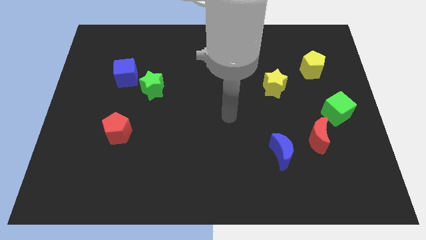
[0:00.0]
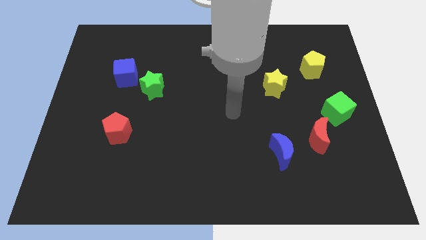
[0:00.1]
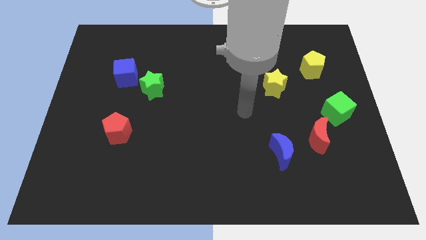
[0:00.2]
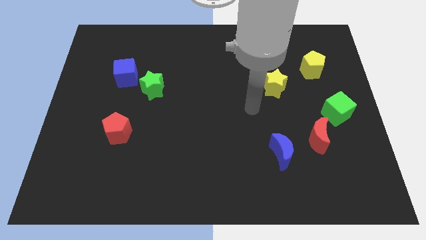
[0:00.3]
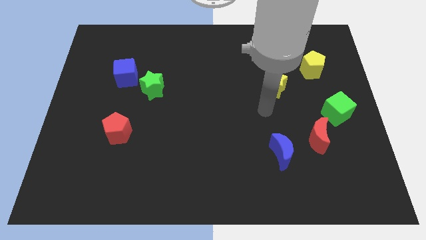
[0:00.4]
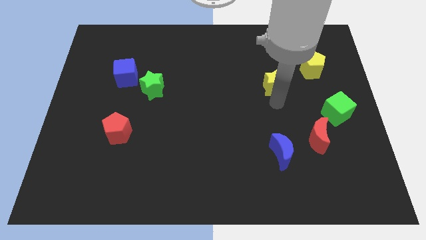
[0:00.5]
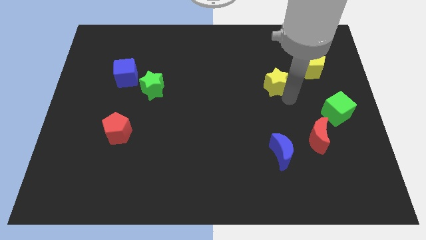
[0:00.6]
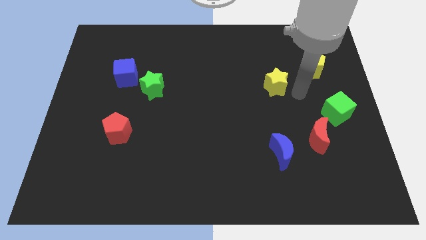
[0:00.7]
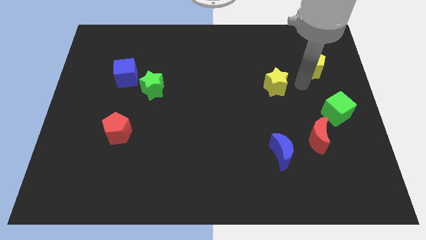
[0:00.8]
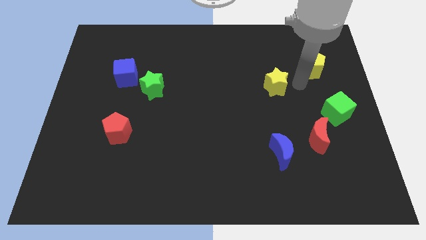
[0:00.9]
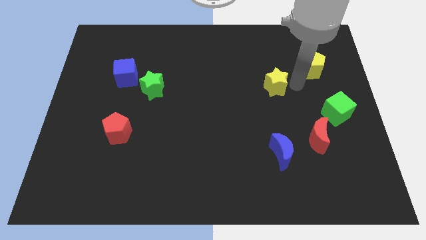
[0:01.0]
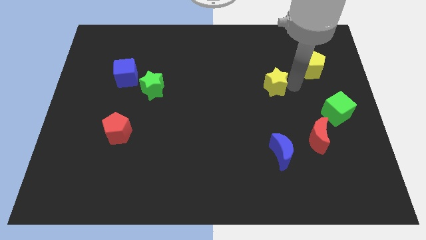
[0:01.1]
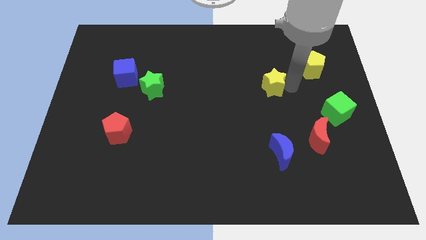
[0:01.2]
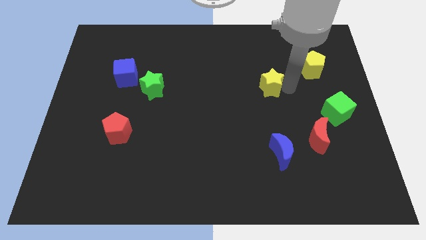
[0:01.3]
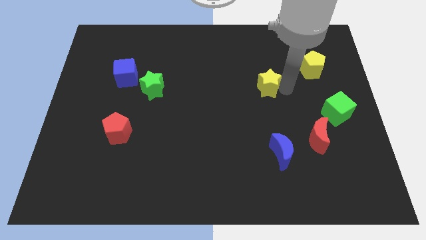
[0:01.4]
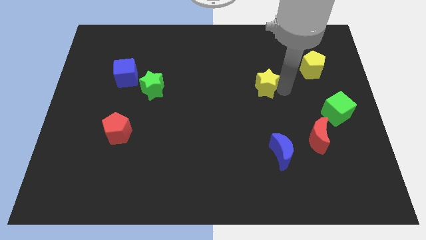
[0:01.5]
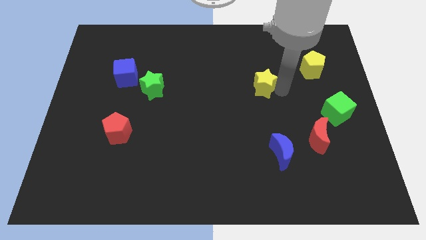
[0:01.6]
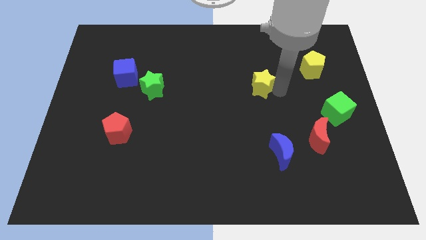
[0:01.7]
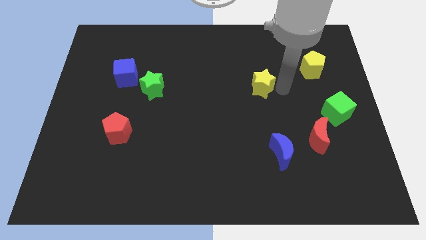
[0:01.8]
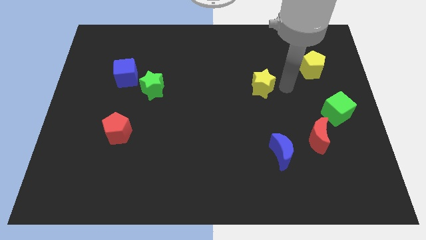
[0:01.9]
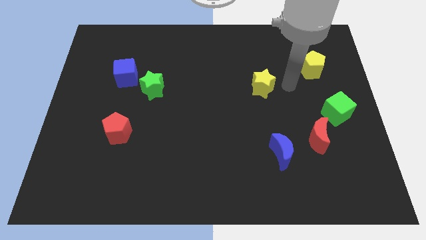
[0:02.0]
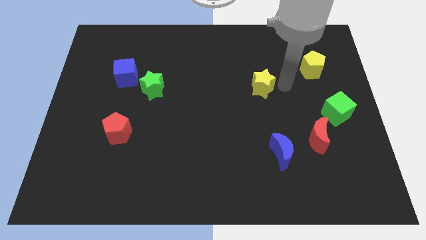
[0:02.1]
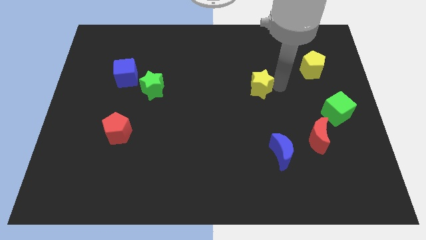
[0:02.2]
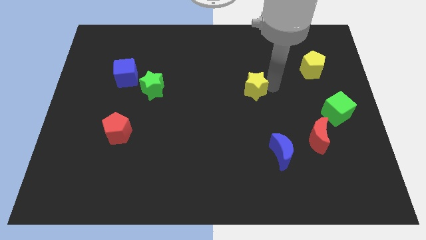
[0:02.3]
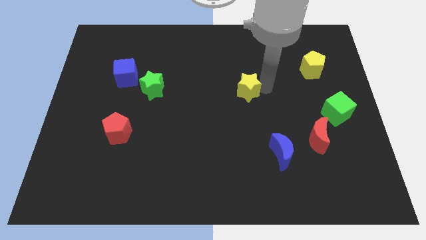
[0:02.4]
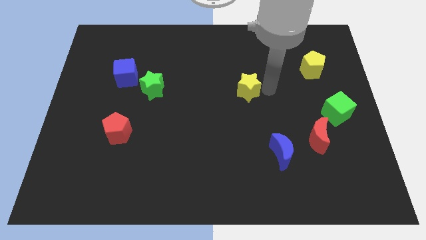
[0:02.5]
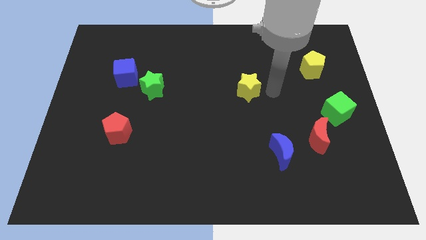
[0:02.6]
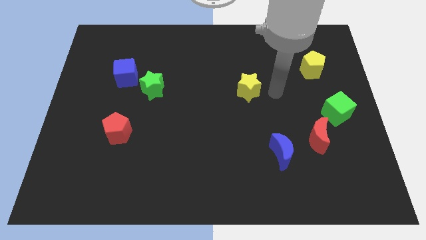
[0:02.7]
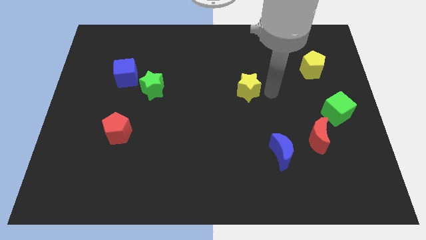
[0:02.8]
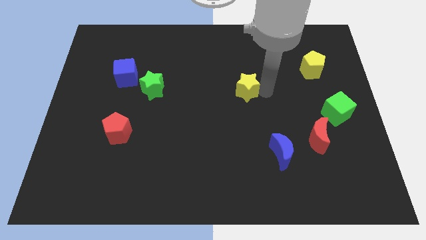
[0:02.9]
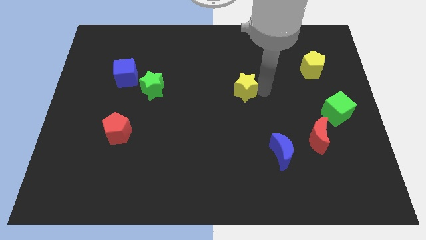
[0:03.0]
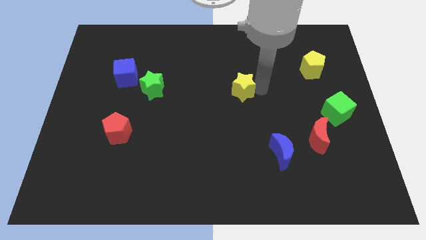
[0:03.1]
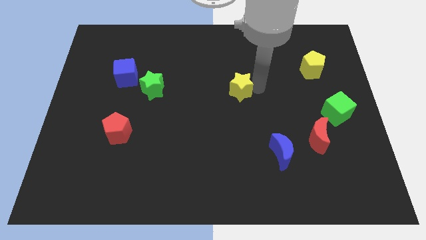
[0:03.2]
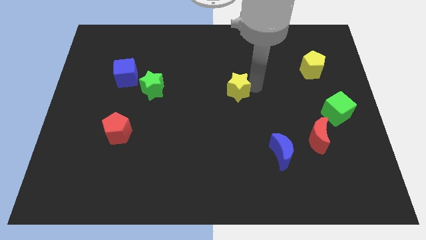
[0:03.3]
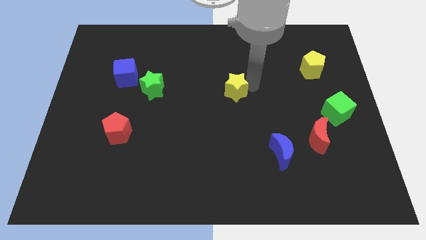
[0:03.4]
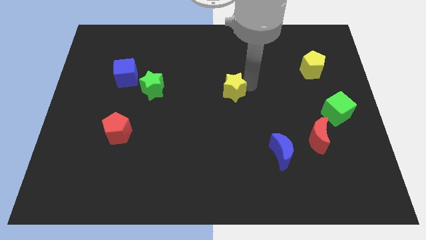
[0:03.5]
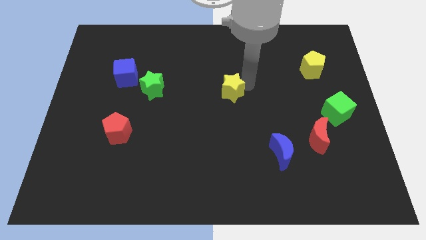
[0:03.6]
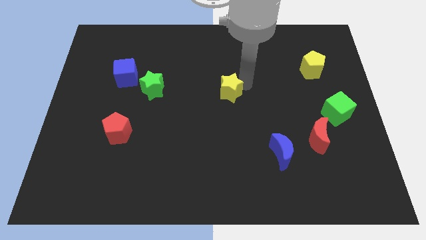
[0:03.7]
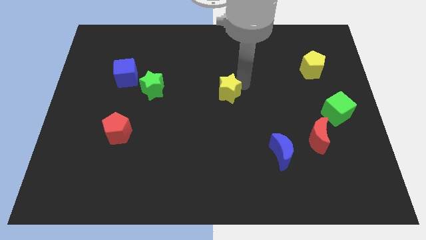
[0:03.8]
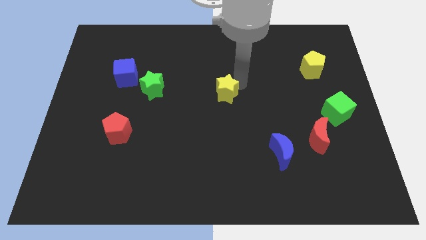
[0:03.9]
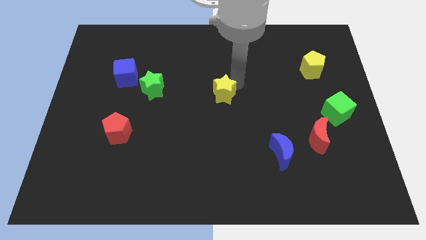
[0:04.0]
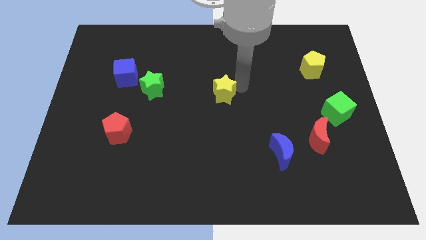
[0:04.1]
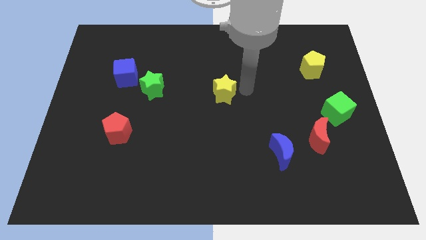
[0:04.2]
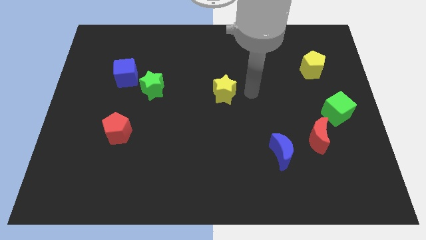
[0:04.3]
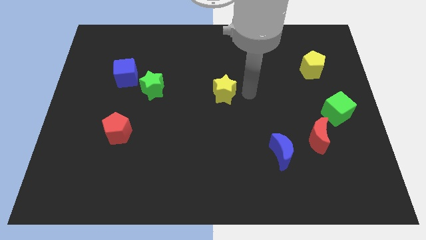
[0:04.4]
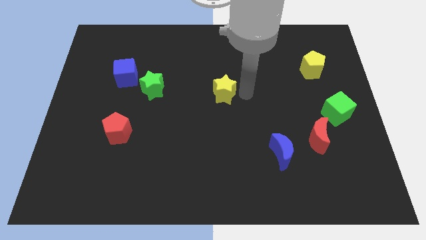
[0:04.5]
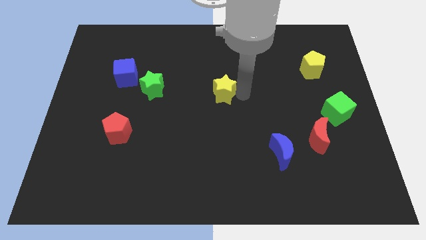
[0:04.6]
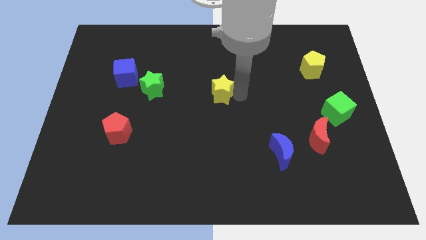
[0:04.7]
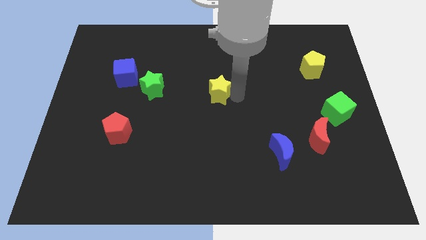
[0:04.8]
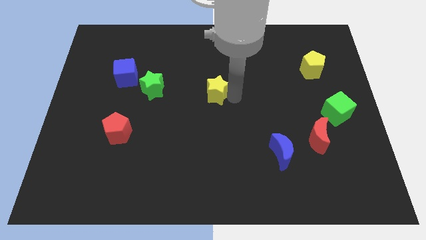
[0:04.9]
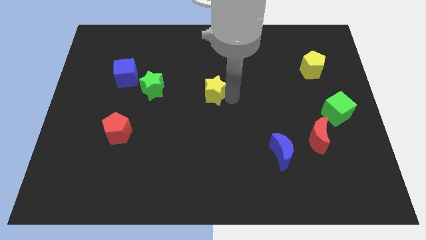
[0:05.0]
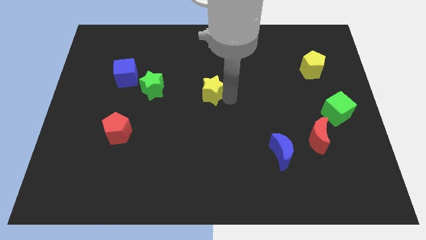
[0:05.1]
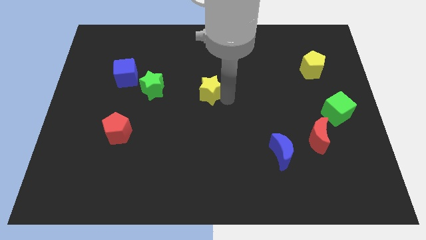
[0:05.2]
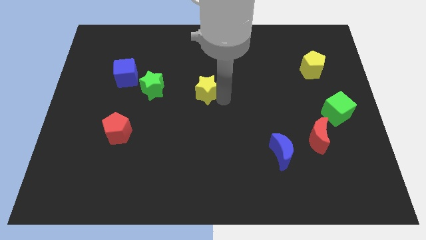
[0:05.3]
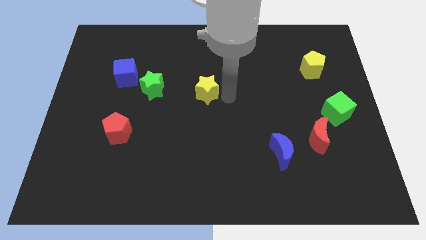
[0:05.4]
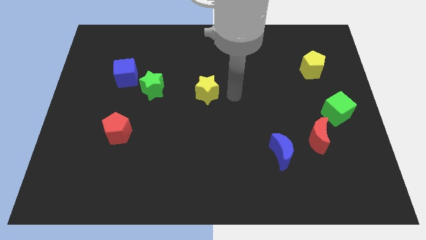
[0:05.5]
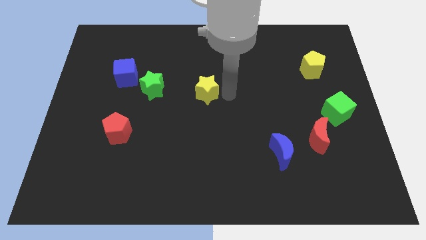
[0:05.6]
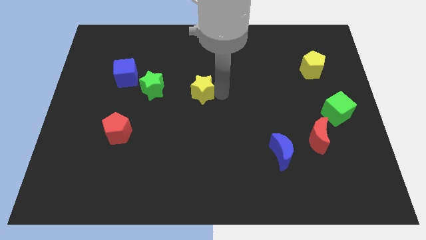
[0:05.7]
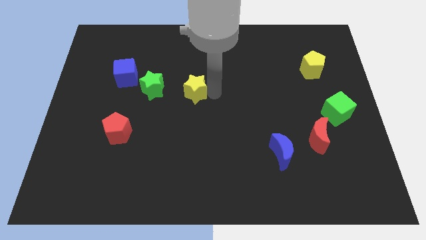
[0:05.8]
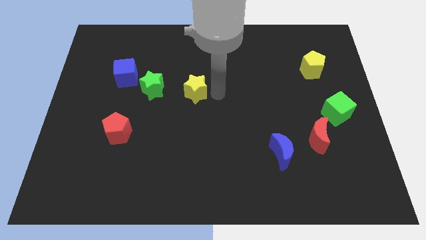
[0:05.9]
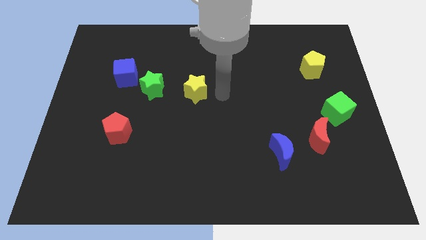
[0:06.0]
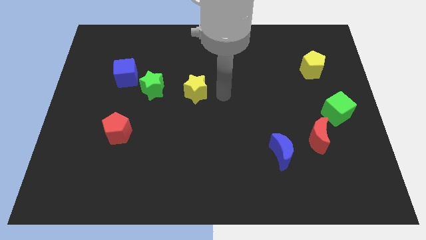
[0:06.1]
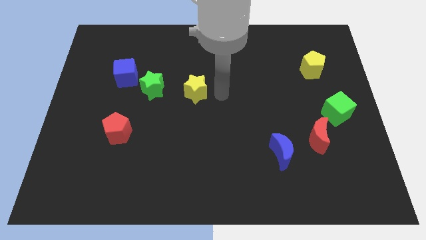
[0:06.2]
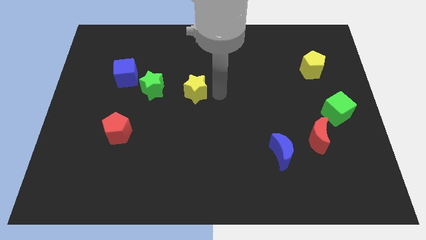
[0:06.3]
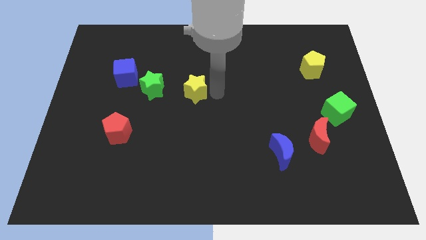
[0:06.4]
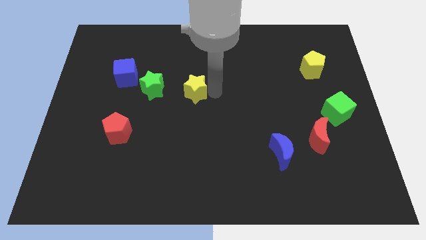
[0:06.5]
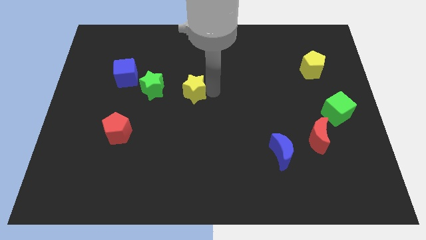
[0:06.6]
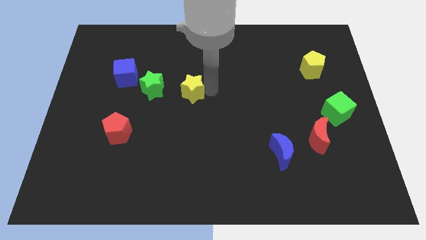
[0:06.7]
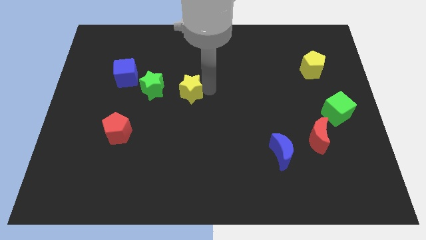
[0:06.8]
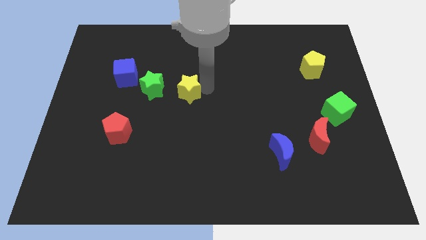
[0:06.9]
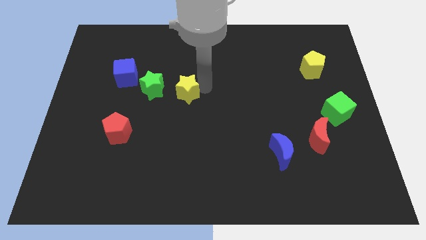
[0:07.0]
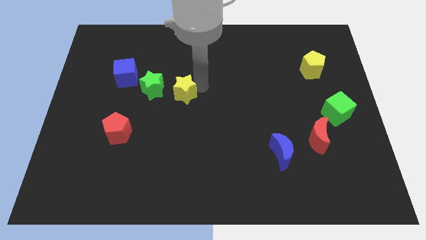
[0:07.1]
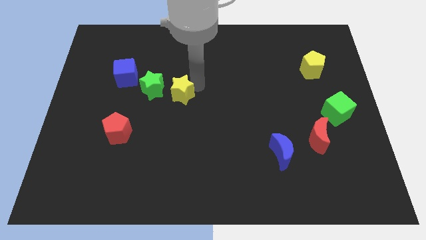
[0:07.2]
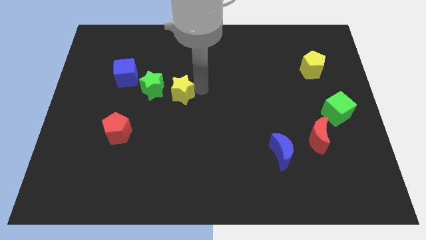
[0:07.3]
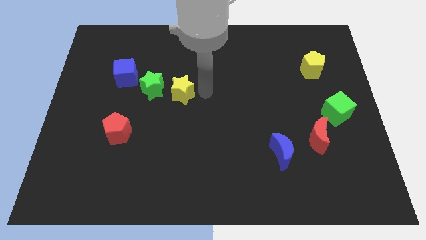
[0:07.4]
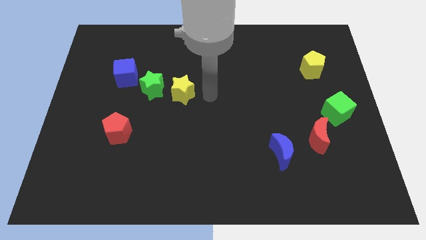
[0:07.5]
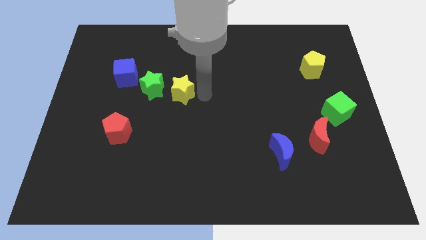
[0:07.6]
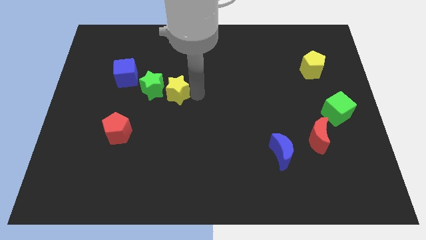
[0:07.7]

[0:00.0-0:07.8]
put the yellow star towards the green star

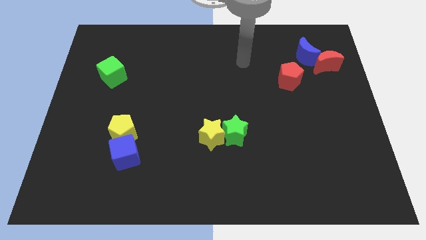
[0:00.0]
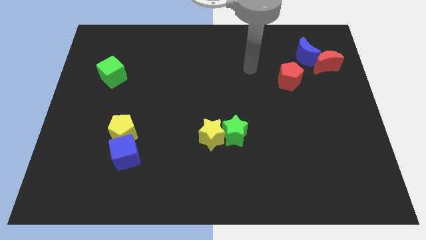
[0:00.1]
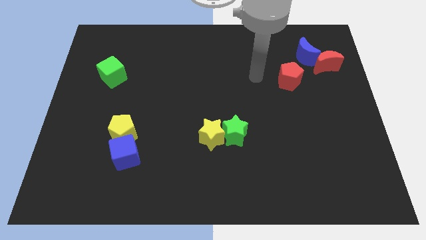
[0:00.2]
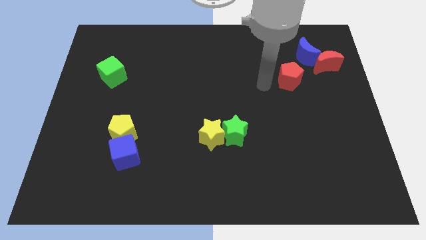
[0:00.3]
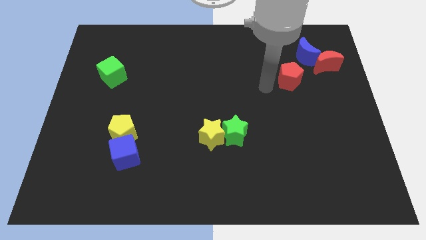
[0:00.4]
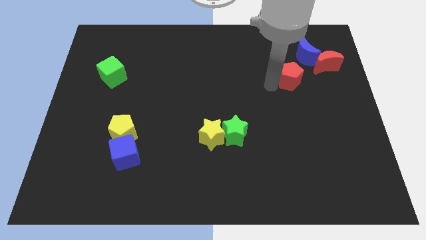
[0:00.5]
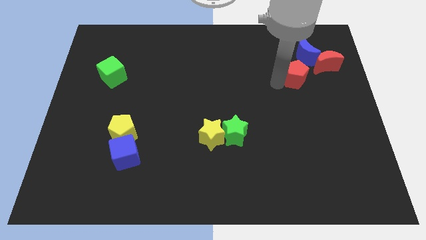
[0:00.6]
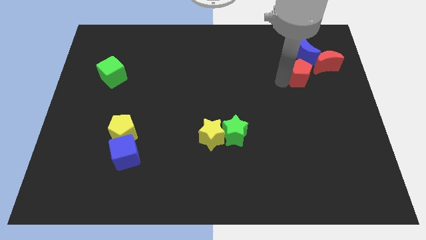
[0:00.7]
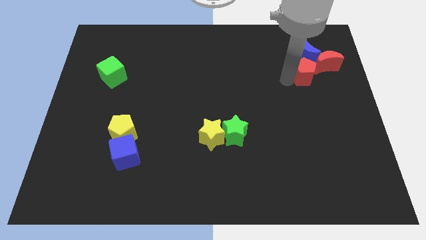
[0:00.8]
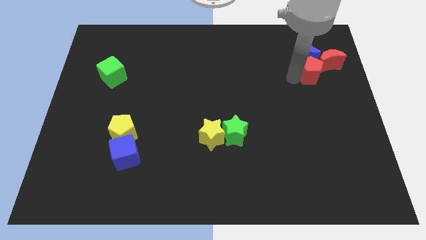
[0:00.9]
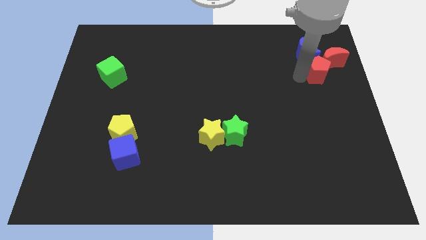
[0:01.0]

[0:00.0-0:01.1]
push the red pentagon close to the red moon
